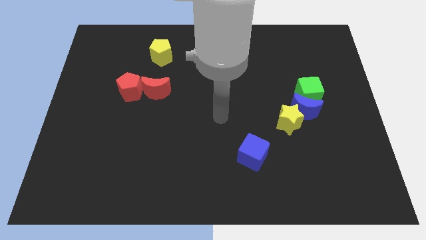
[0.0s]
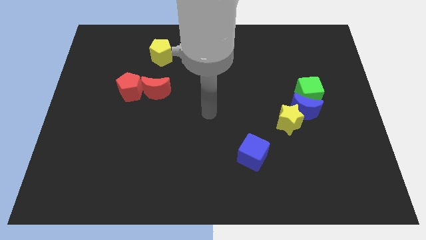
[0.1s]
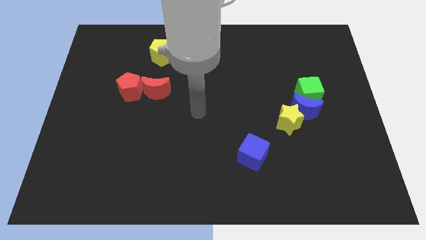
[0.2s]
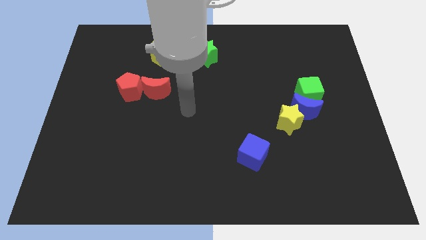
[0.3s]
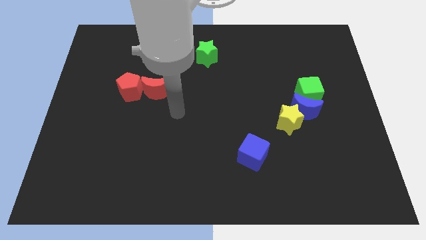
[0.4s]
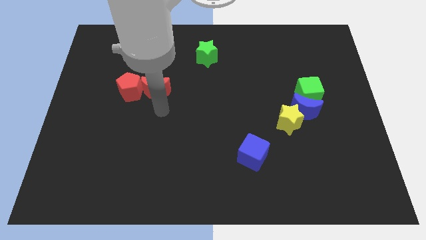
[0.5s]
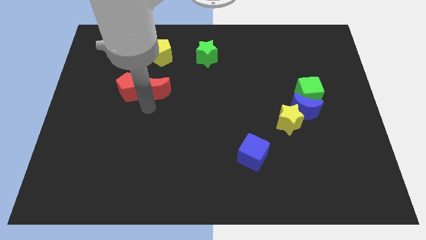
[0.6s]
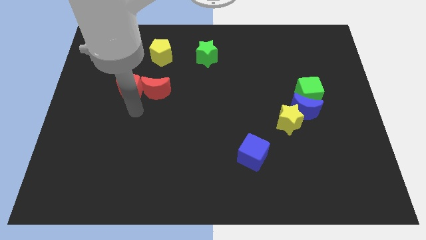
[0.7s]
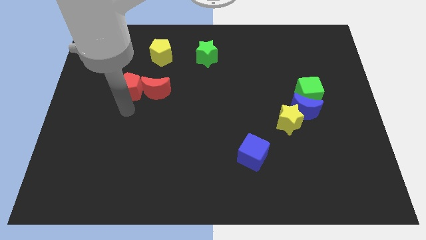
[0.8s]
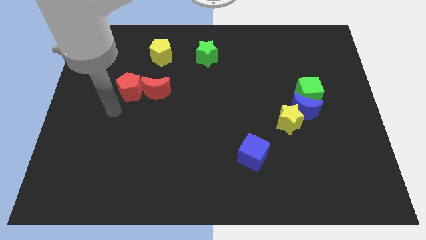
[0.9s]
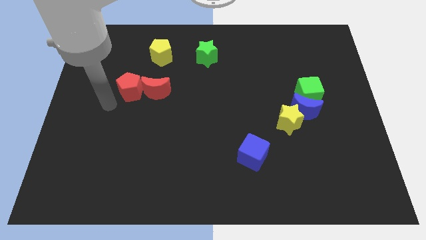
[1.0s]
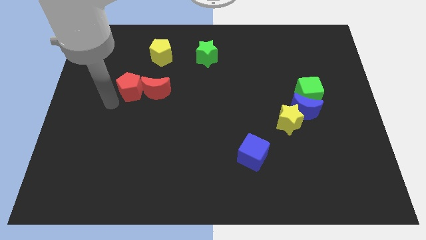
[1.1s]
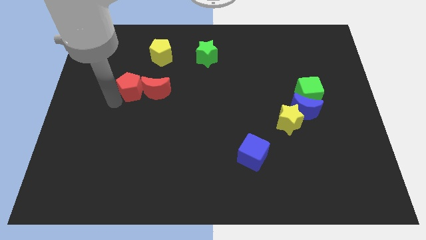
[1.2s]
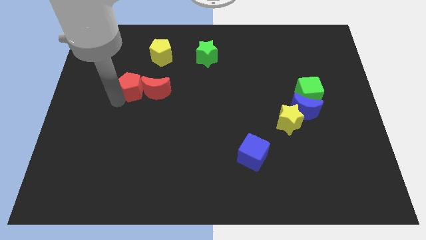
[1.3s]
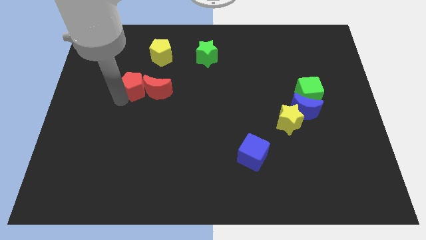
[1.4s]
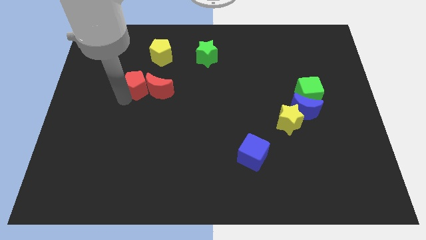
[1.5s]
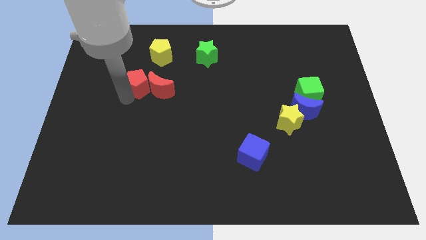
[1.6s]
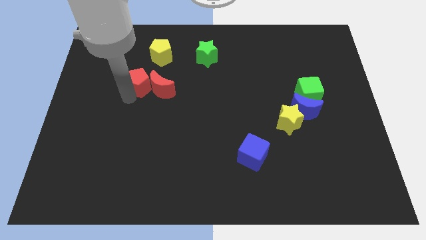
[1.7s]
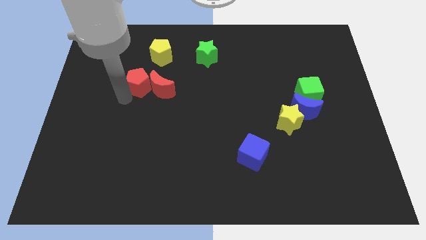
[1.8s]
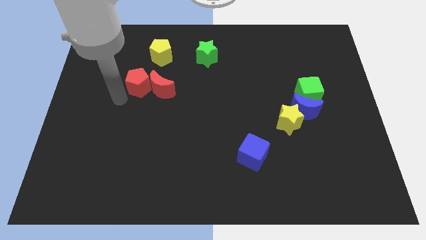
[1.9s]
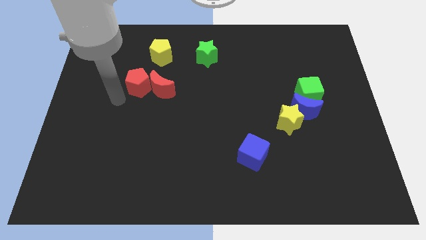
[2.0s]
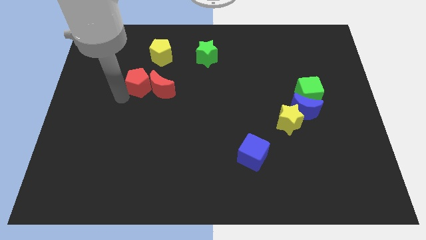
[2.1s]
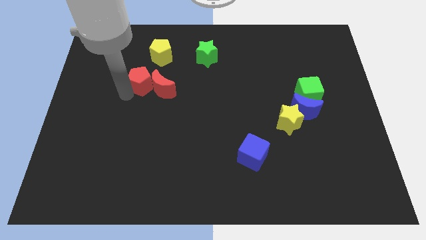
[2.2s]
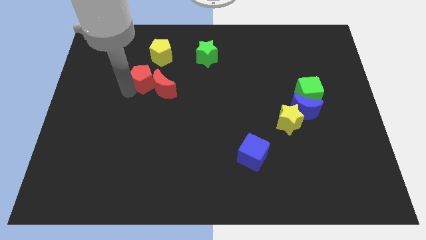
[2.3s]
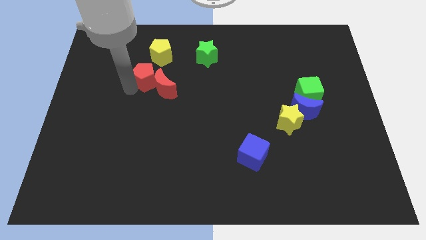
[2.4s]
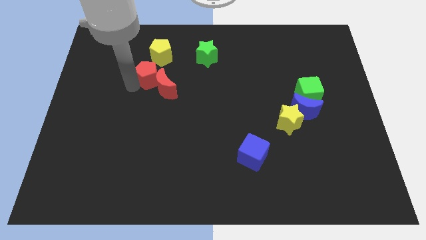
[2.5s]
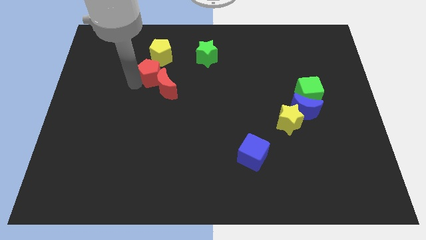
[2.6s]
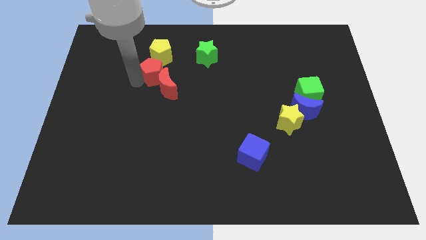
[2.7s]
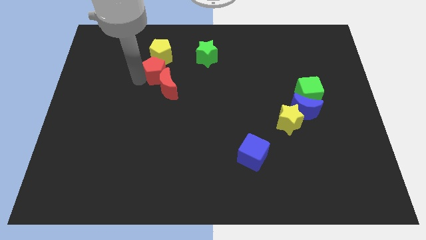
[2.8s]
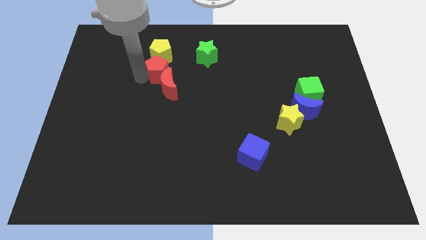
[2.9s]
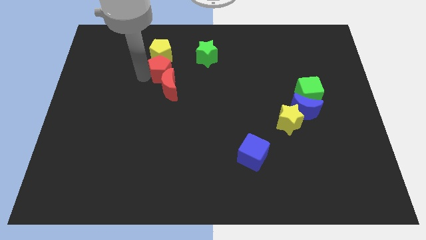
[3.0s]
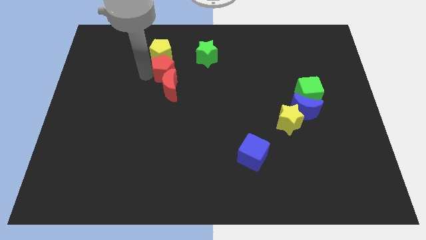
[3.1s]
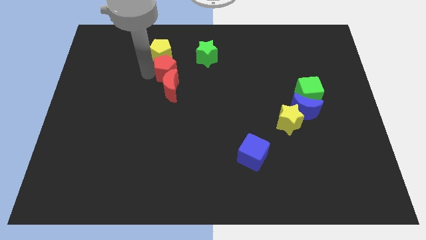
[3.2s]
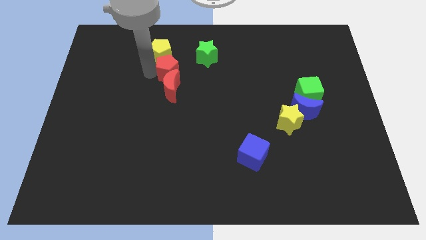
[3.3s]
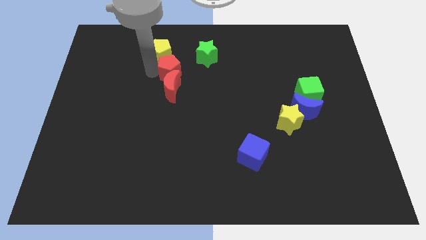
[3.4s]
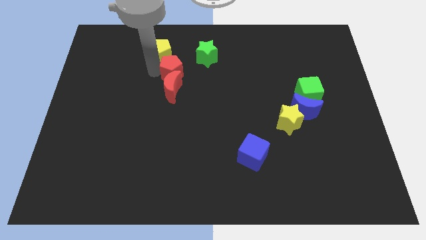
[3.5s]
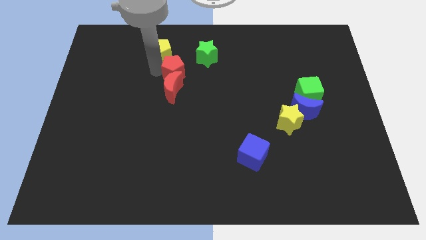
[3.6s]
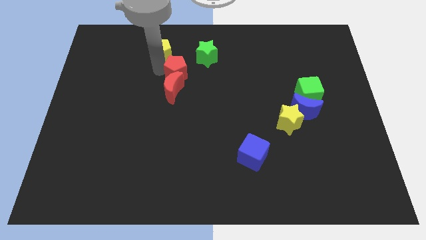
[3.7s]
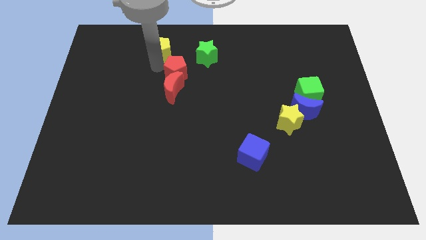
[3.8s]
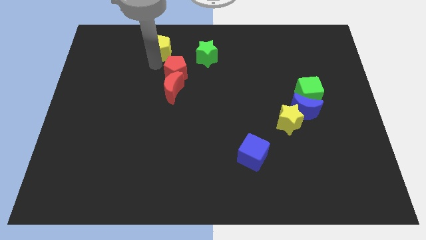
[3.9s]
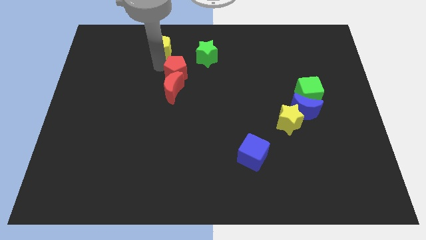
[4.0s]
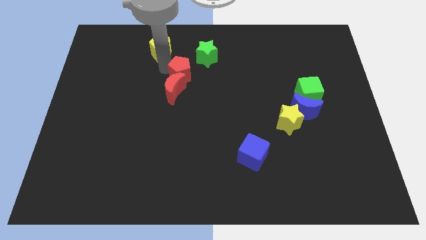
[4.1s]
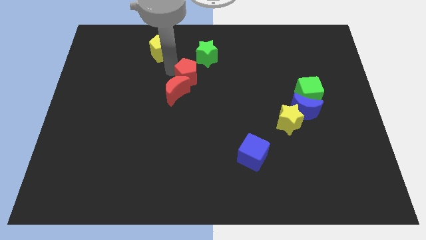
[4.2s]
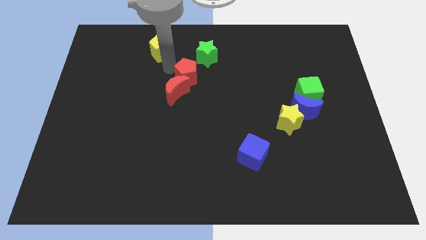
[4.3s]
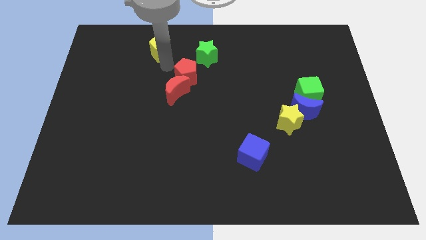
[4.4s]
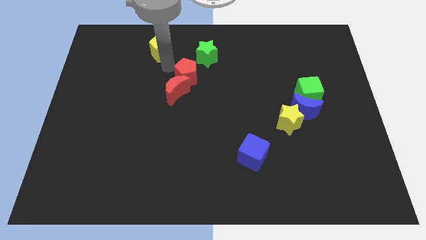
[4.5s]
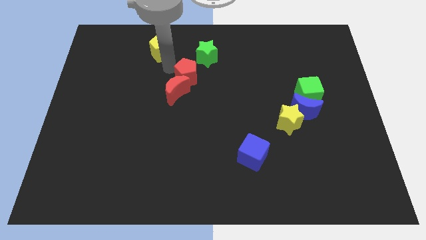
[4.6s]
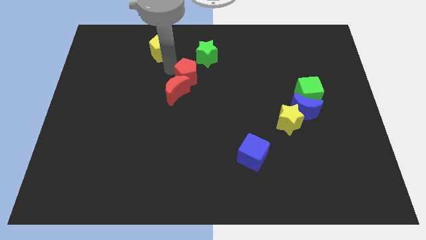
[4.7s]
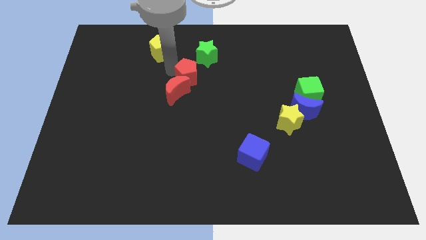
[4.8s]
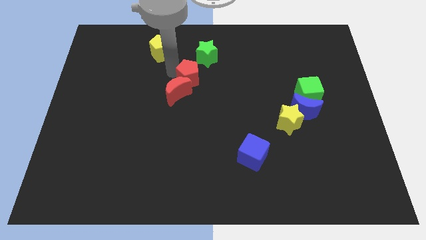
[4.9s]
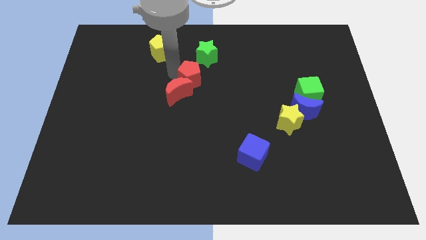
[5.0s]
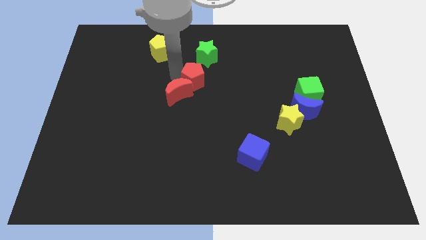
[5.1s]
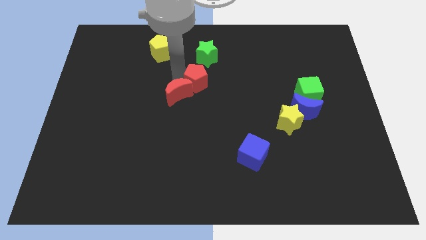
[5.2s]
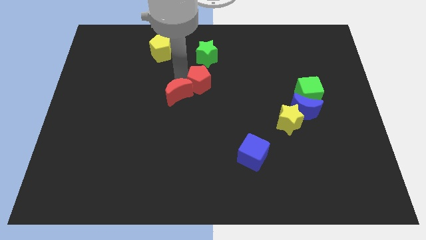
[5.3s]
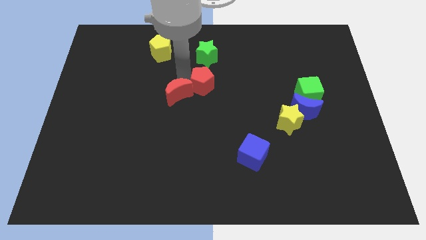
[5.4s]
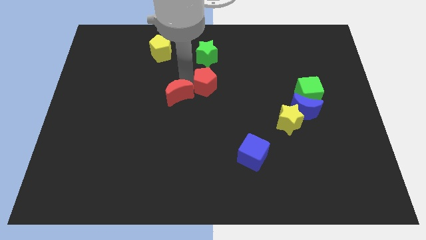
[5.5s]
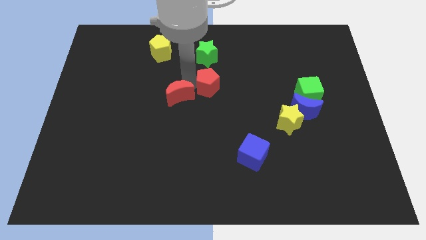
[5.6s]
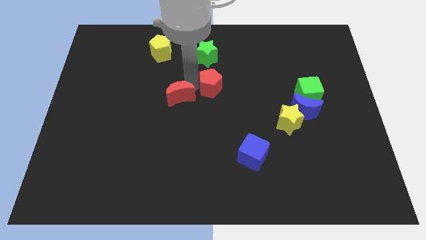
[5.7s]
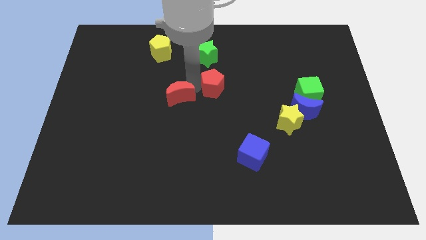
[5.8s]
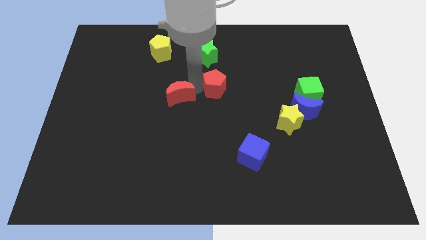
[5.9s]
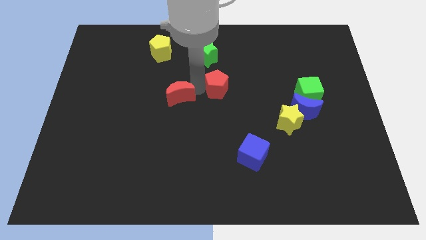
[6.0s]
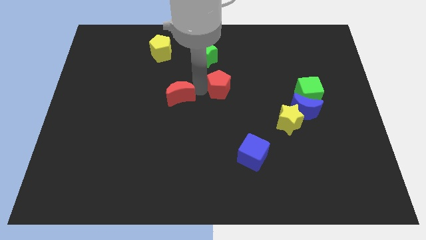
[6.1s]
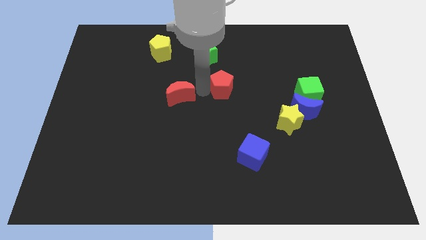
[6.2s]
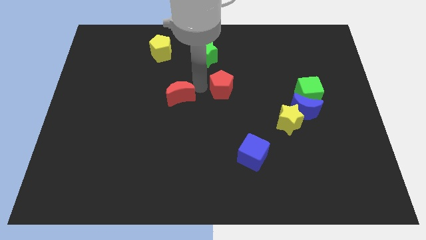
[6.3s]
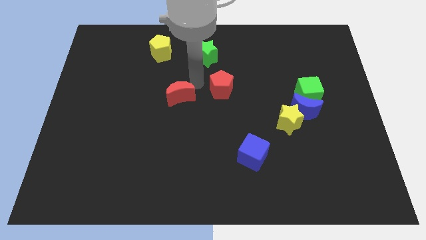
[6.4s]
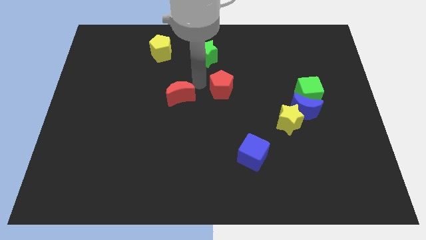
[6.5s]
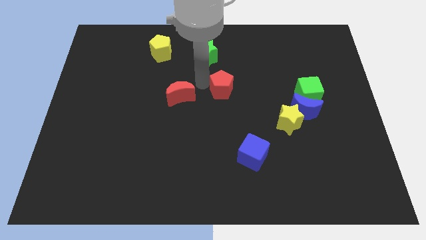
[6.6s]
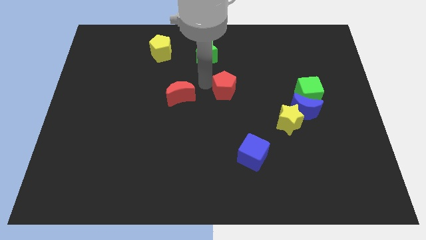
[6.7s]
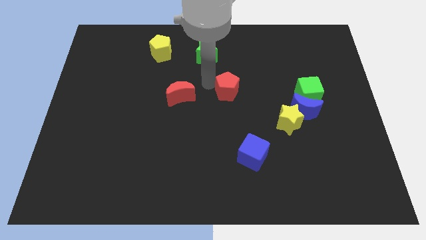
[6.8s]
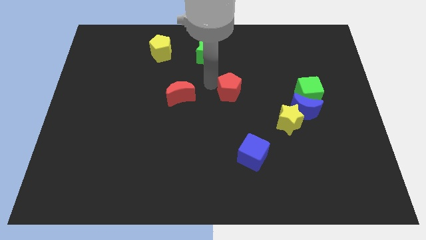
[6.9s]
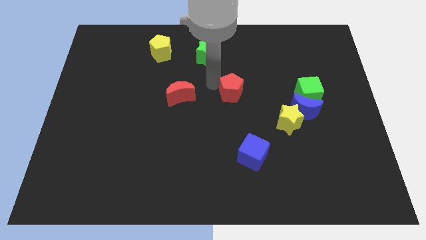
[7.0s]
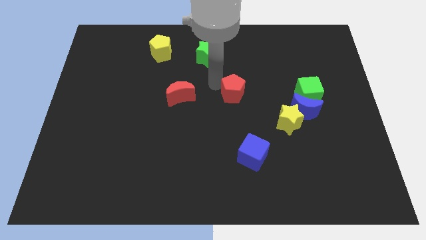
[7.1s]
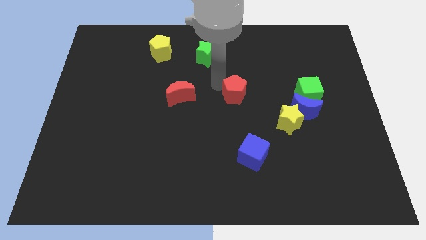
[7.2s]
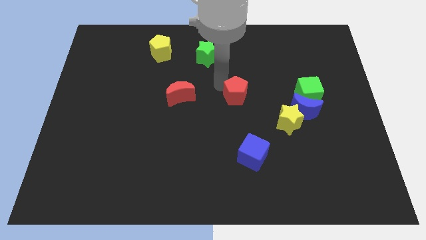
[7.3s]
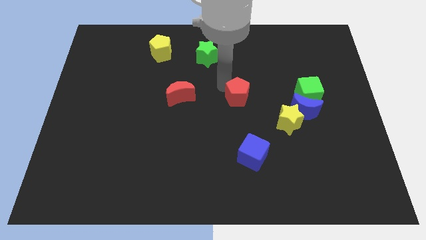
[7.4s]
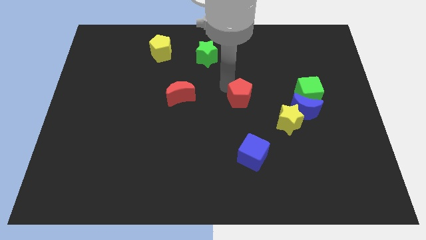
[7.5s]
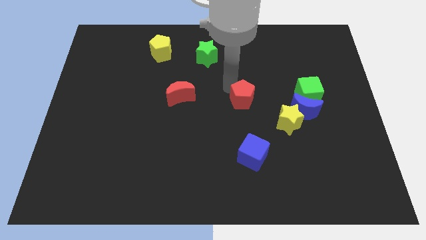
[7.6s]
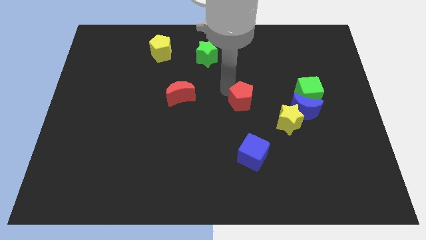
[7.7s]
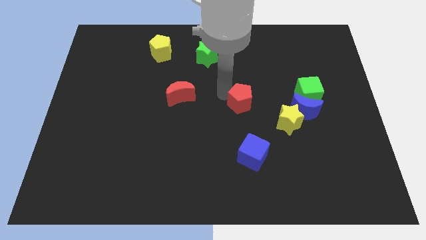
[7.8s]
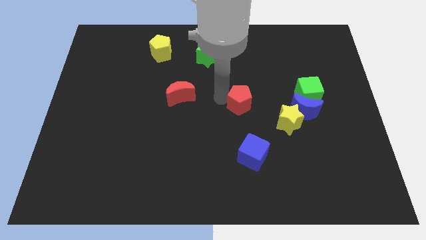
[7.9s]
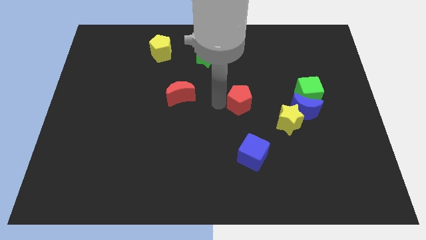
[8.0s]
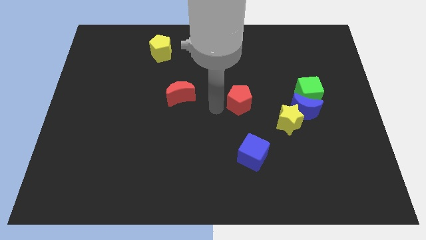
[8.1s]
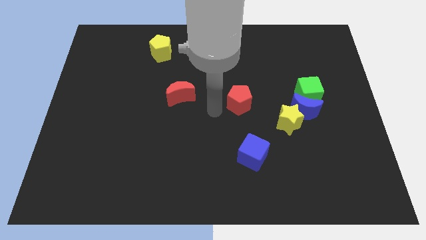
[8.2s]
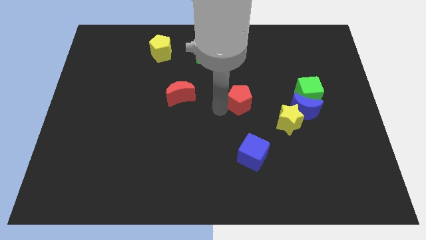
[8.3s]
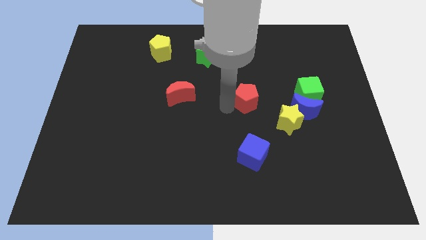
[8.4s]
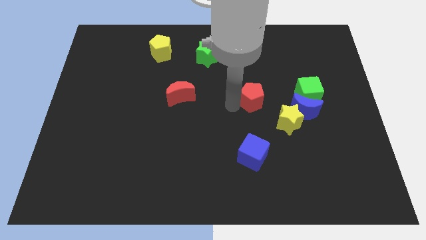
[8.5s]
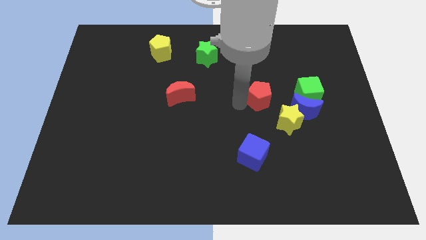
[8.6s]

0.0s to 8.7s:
slide the red pentagon to the top left side of the blue moon
